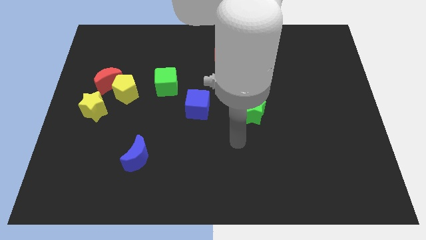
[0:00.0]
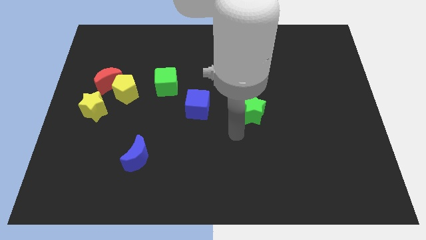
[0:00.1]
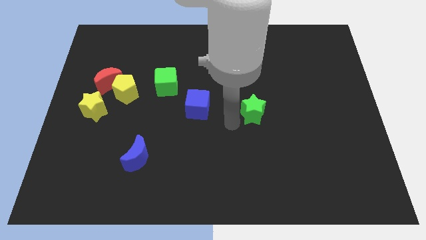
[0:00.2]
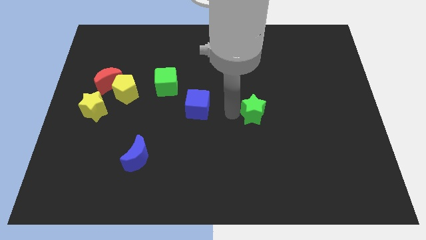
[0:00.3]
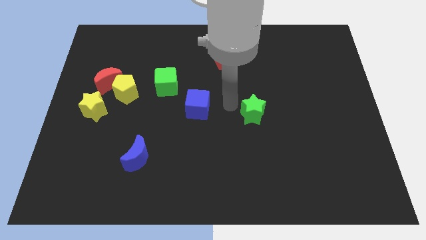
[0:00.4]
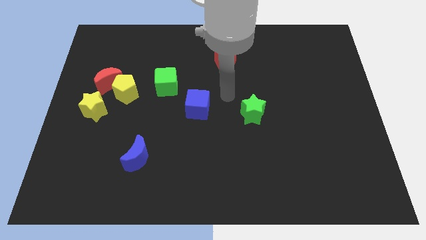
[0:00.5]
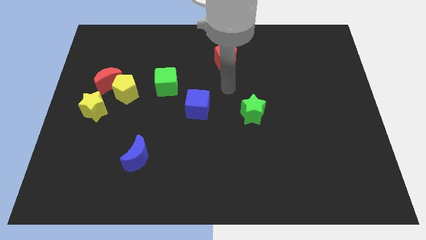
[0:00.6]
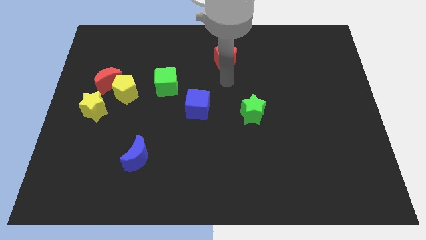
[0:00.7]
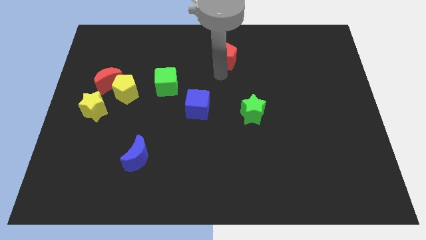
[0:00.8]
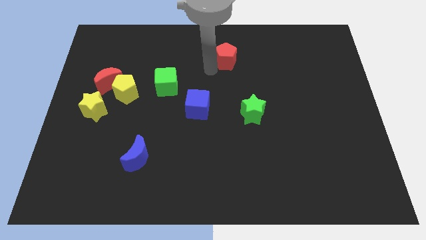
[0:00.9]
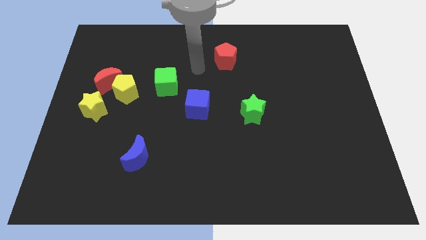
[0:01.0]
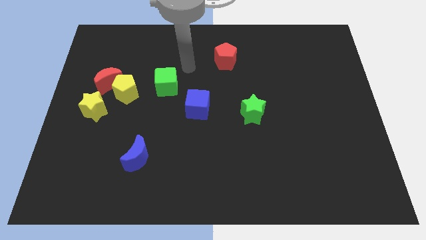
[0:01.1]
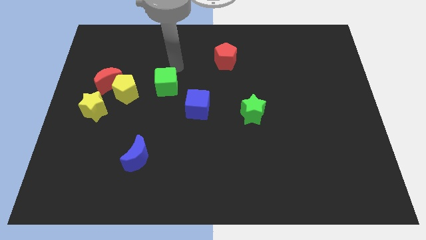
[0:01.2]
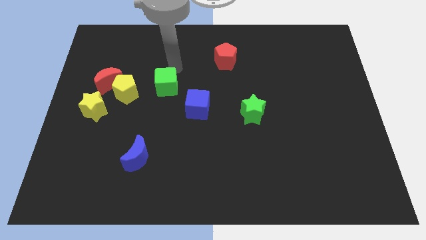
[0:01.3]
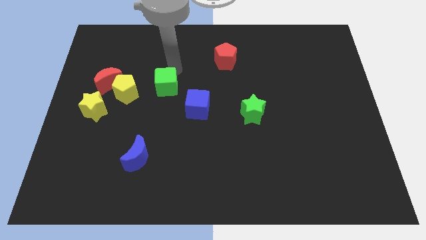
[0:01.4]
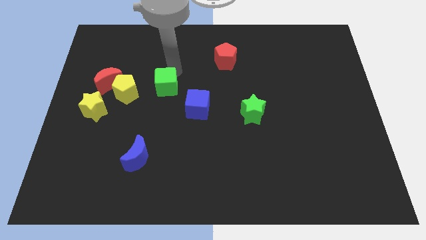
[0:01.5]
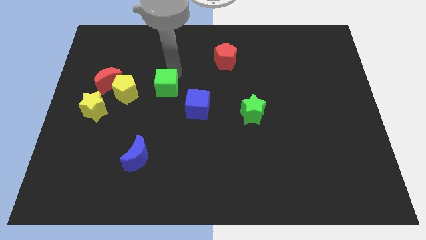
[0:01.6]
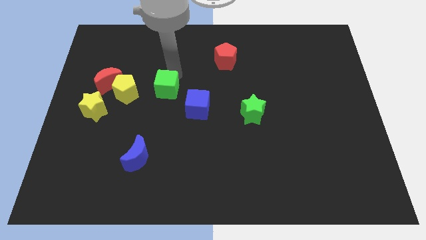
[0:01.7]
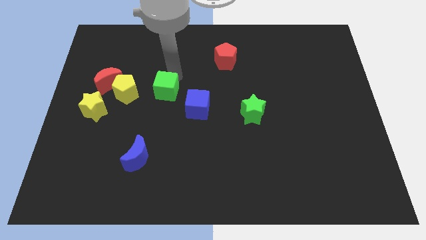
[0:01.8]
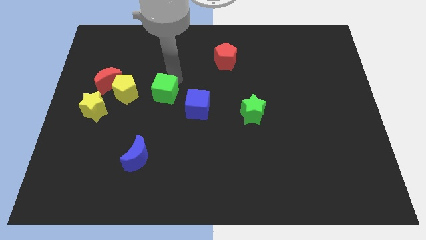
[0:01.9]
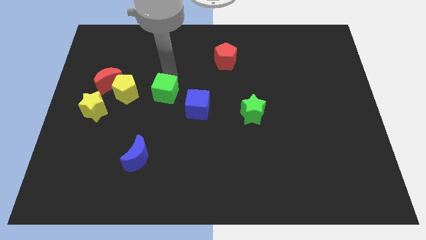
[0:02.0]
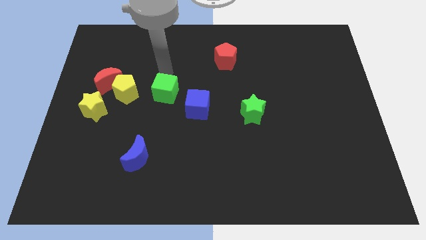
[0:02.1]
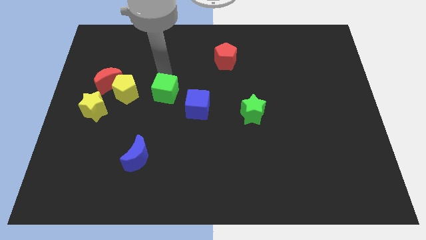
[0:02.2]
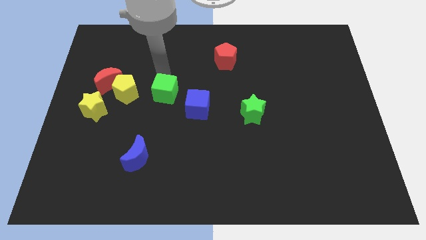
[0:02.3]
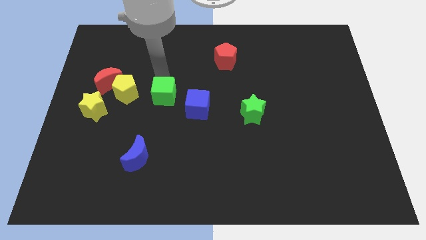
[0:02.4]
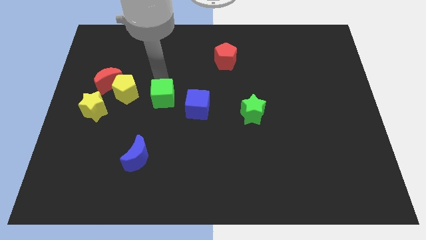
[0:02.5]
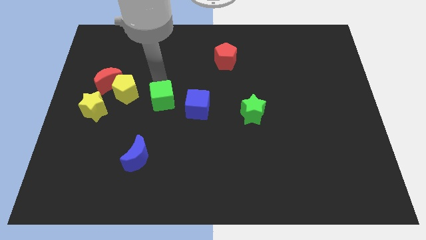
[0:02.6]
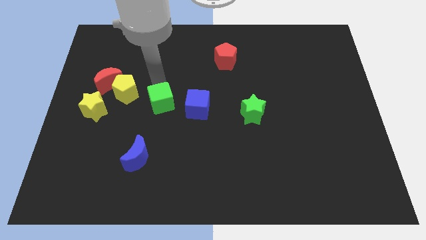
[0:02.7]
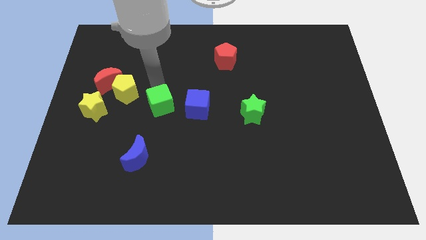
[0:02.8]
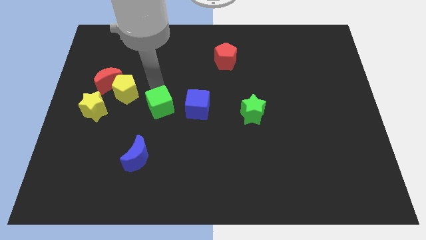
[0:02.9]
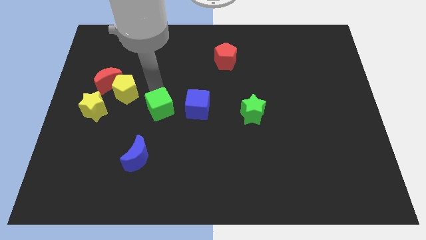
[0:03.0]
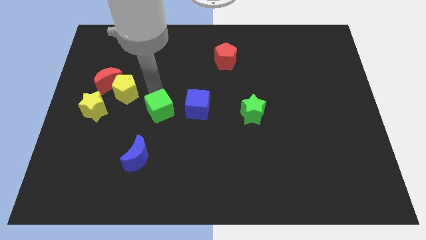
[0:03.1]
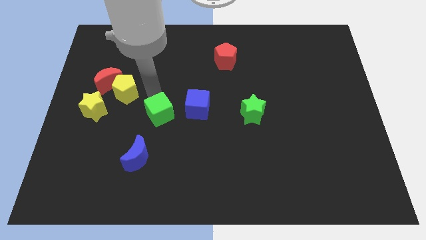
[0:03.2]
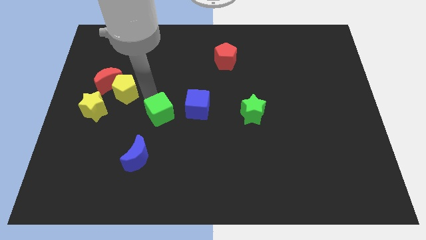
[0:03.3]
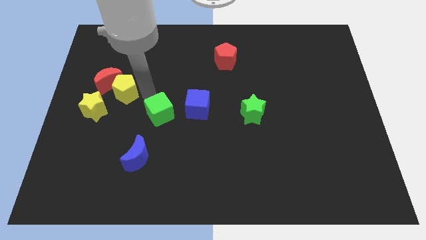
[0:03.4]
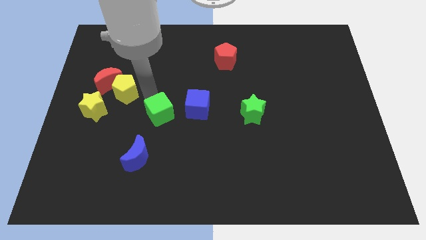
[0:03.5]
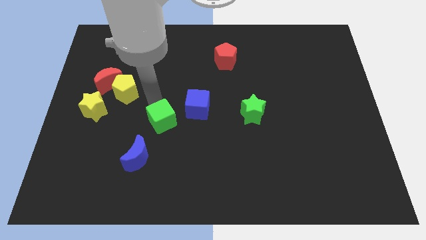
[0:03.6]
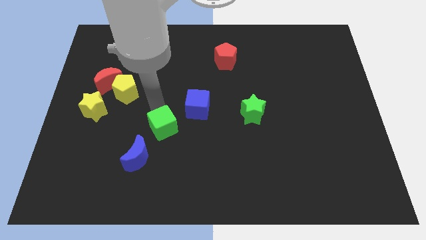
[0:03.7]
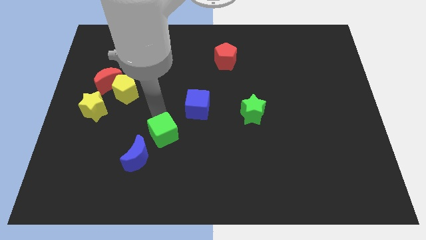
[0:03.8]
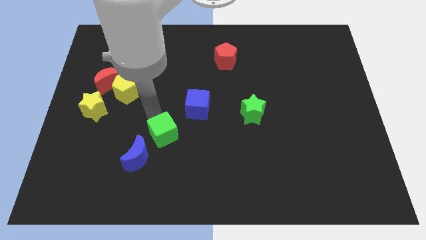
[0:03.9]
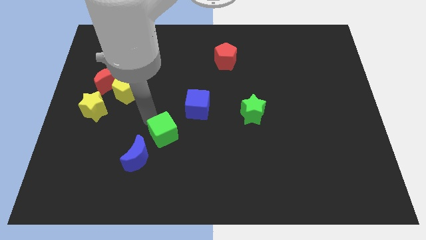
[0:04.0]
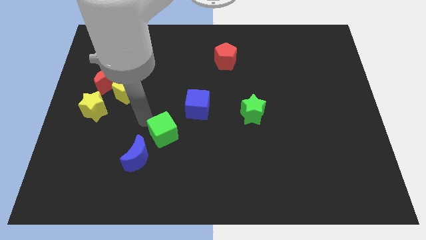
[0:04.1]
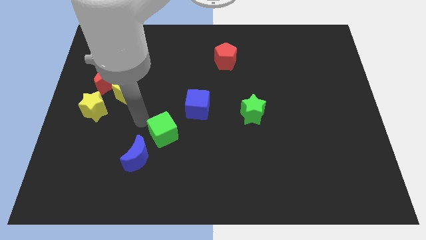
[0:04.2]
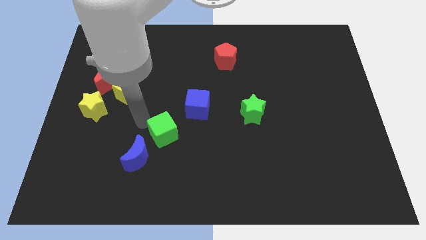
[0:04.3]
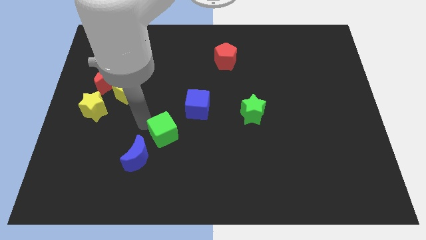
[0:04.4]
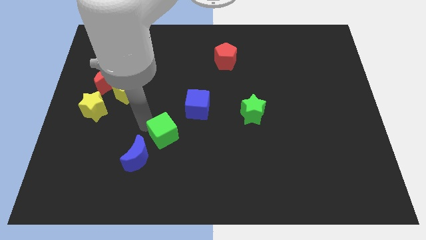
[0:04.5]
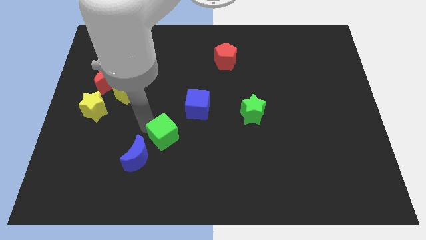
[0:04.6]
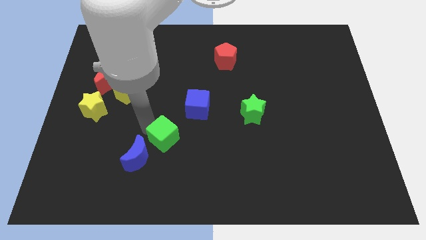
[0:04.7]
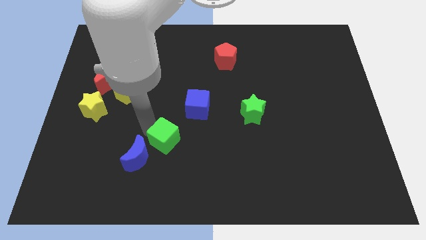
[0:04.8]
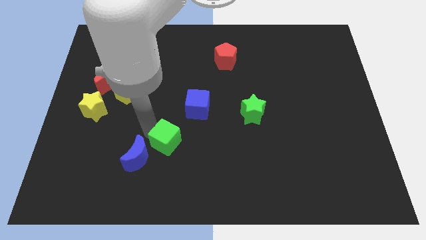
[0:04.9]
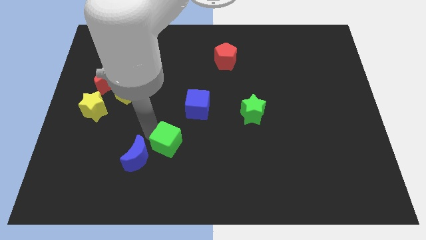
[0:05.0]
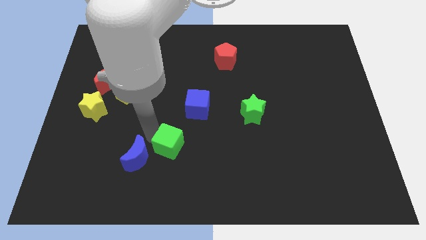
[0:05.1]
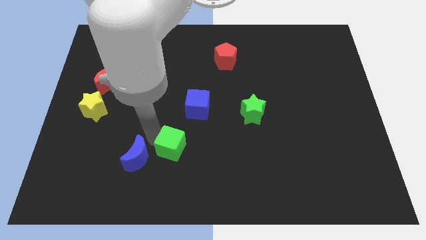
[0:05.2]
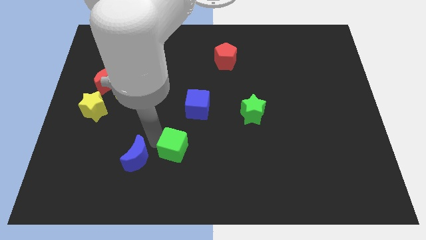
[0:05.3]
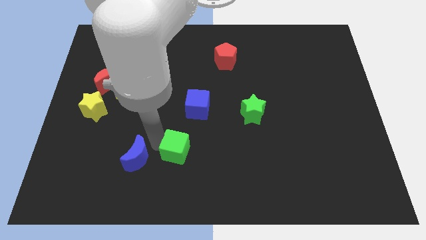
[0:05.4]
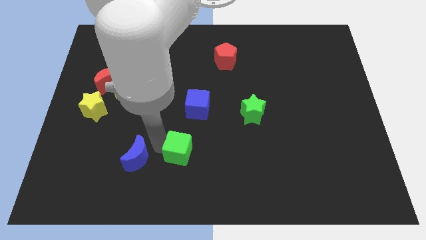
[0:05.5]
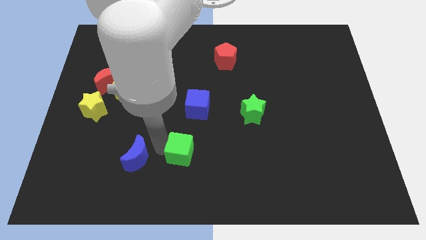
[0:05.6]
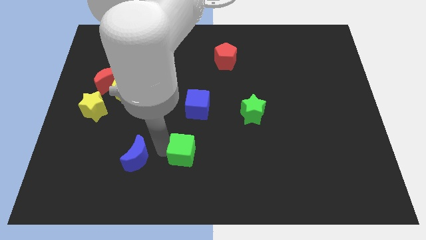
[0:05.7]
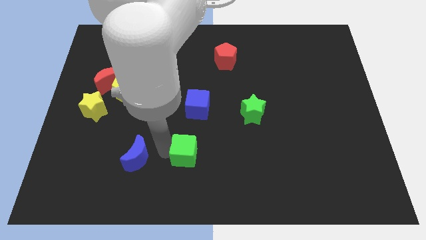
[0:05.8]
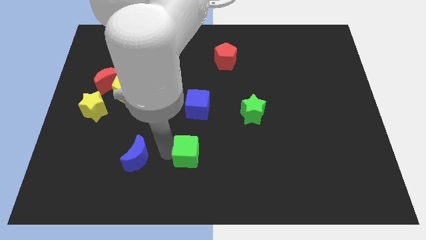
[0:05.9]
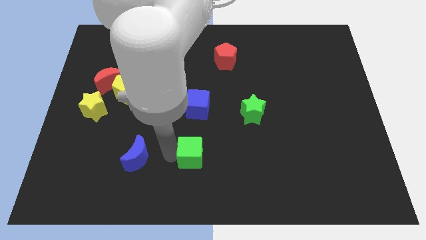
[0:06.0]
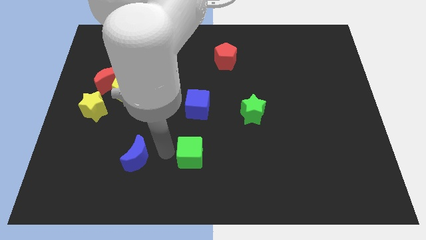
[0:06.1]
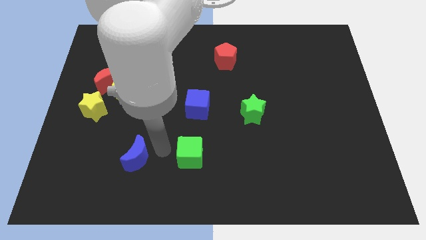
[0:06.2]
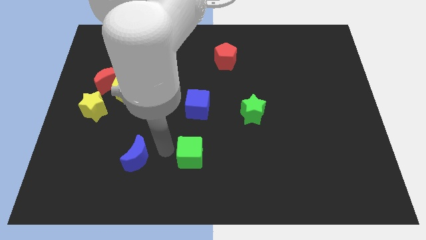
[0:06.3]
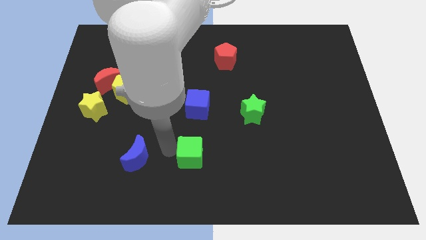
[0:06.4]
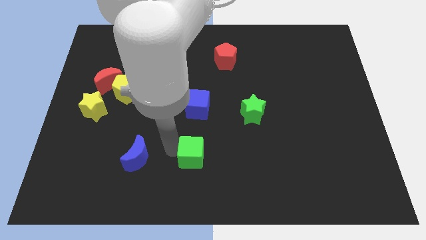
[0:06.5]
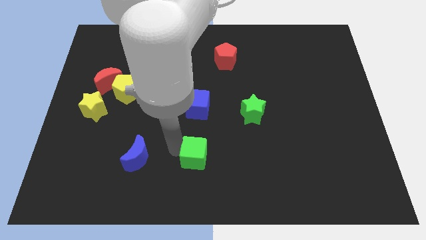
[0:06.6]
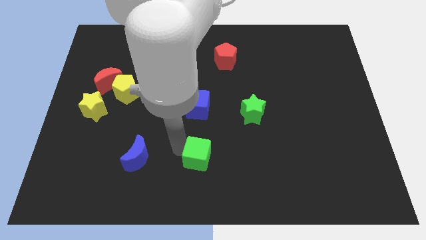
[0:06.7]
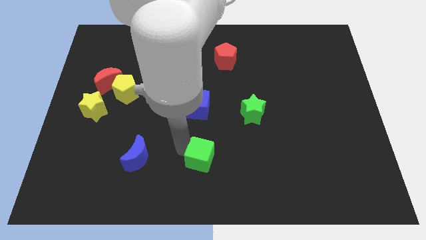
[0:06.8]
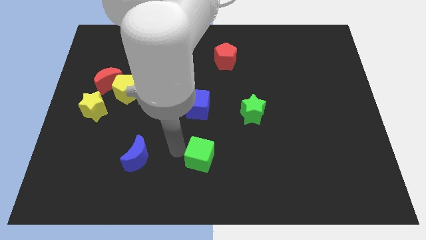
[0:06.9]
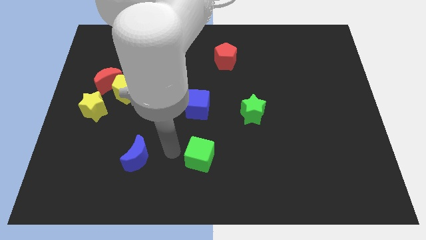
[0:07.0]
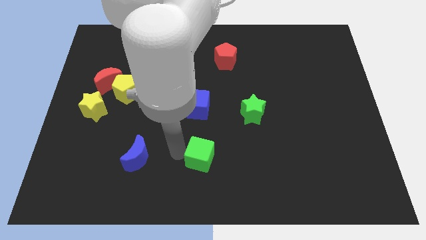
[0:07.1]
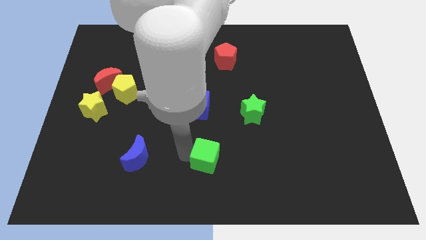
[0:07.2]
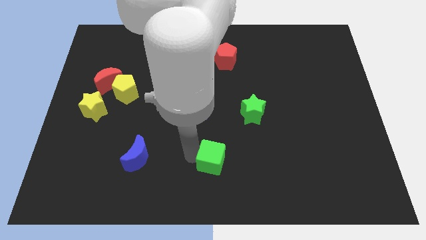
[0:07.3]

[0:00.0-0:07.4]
move the green cube diagonally down and right

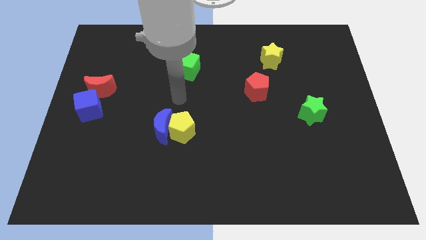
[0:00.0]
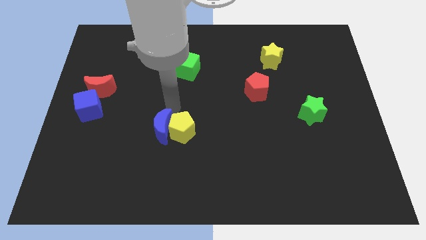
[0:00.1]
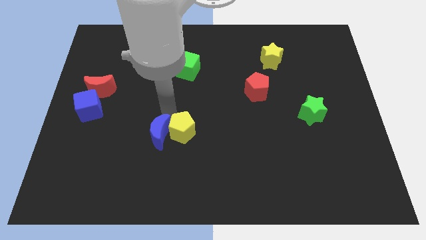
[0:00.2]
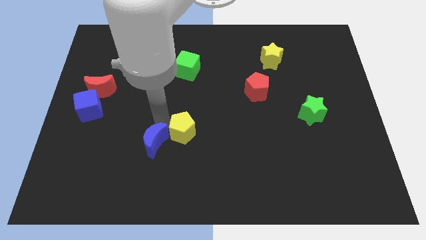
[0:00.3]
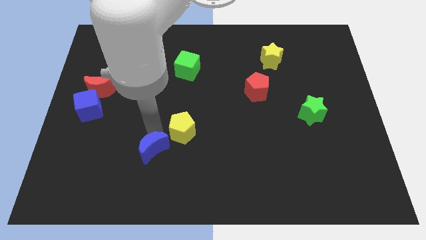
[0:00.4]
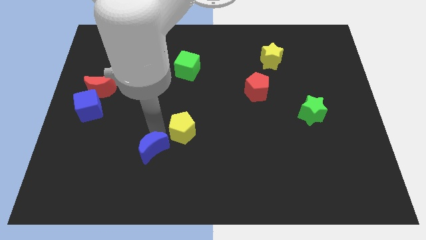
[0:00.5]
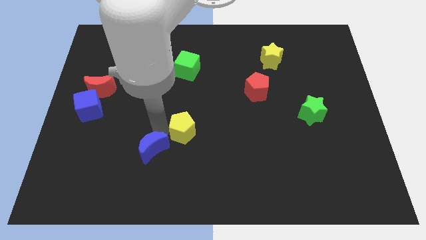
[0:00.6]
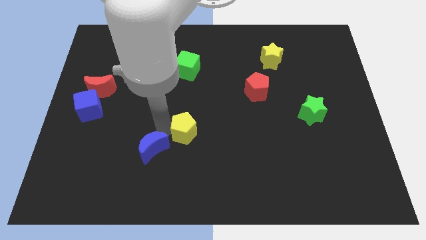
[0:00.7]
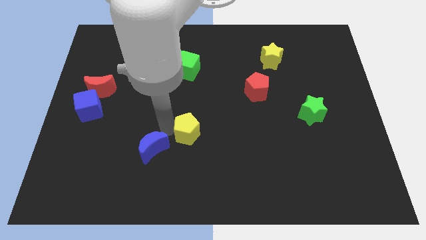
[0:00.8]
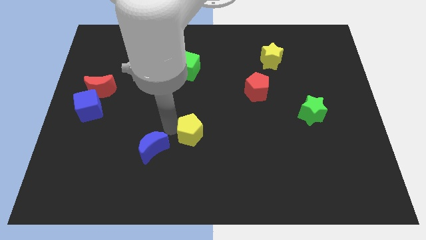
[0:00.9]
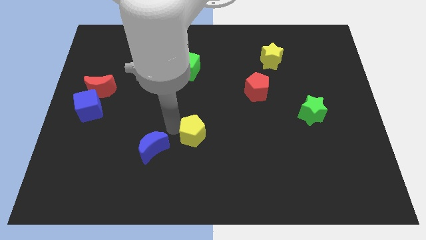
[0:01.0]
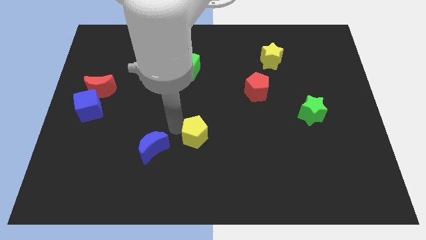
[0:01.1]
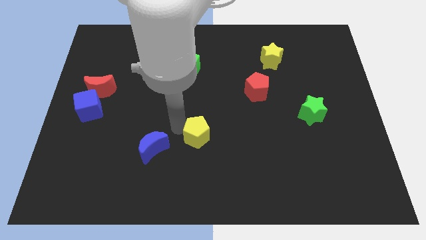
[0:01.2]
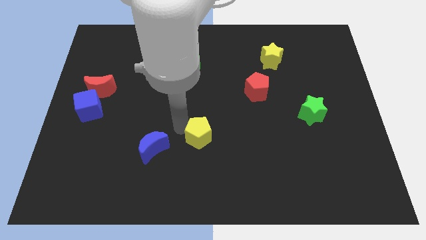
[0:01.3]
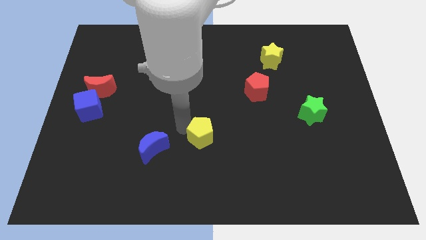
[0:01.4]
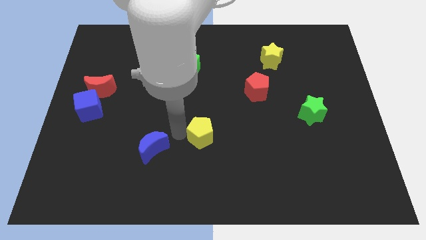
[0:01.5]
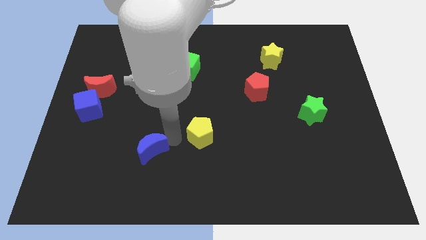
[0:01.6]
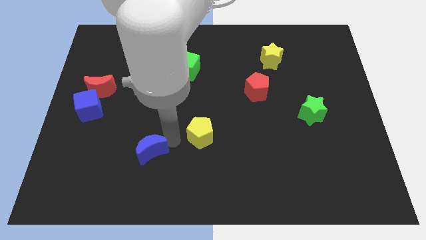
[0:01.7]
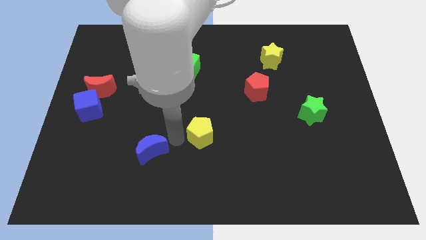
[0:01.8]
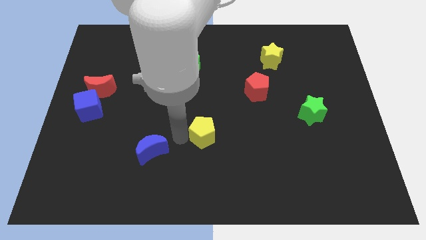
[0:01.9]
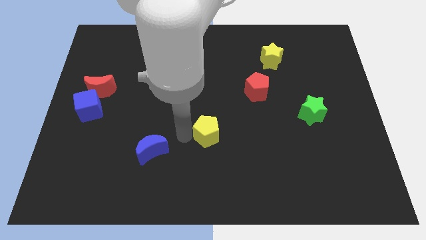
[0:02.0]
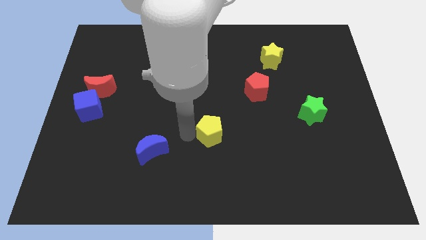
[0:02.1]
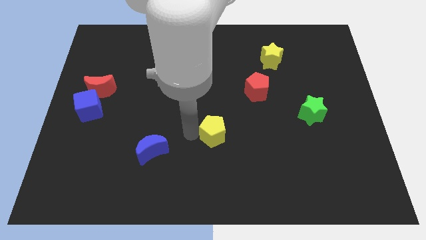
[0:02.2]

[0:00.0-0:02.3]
slightly slide the yellow pentagon right
